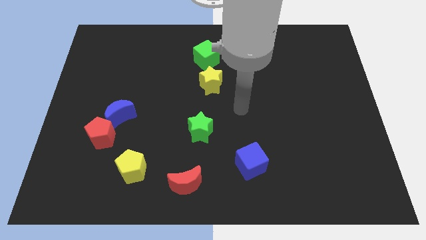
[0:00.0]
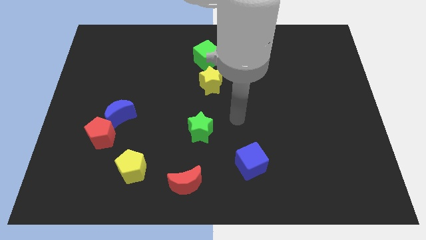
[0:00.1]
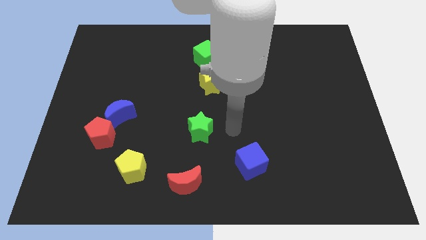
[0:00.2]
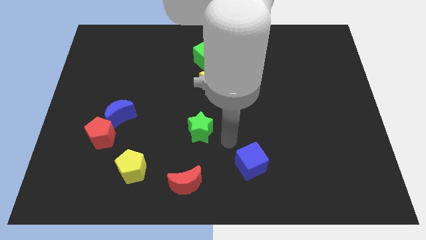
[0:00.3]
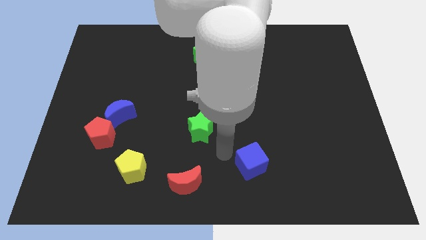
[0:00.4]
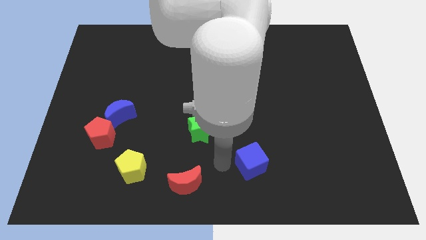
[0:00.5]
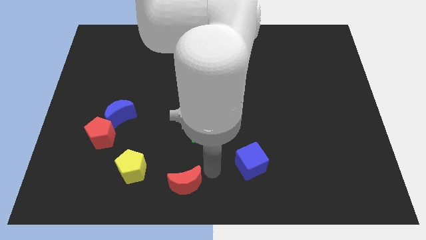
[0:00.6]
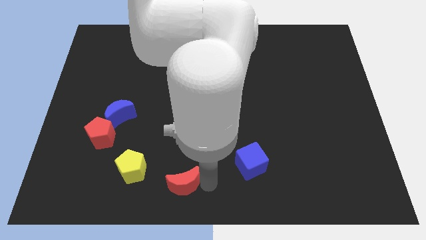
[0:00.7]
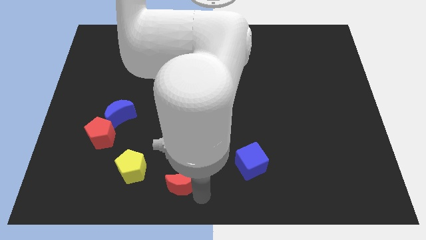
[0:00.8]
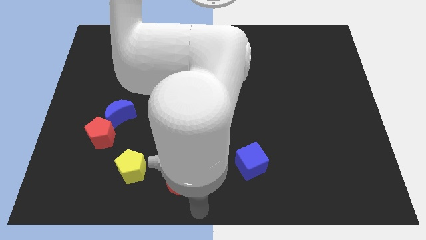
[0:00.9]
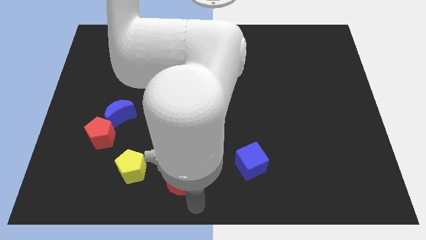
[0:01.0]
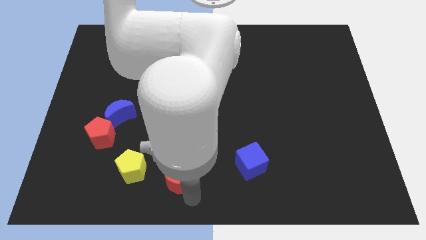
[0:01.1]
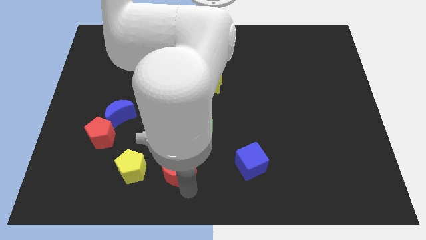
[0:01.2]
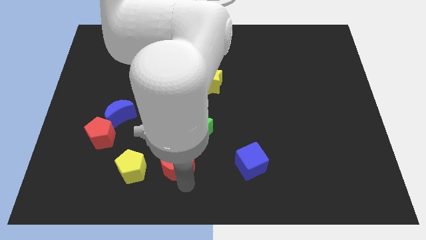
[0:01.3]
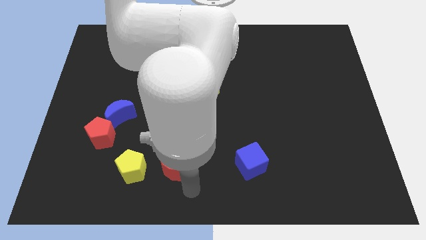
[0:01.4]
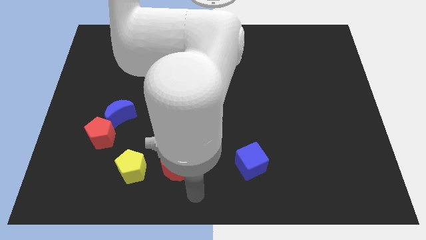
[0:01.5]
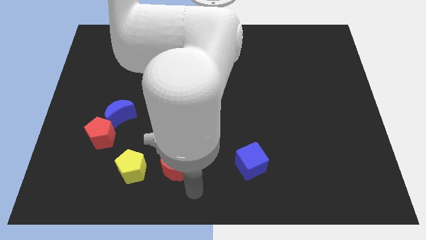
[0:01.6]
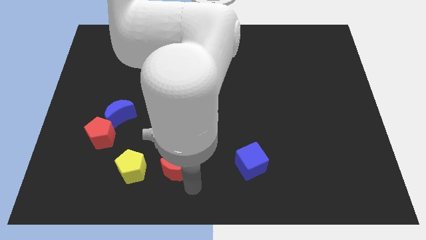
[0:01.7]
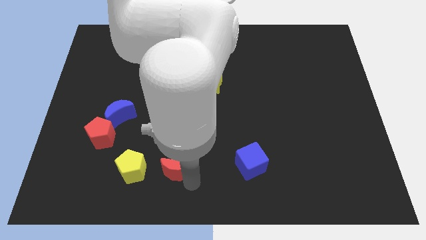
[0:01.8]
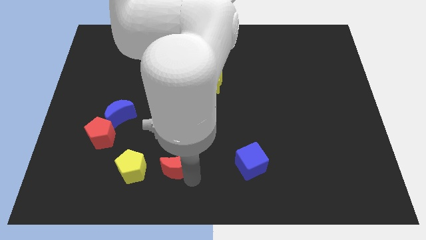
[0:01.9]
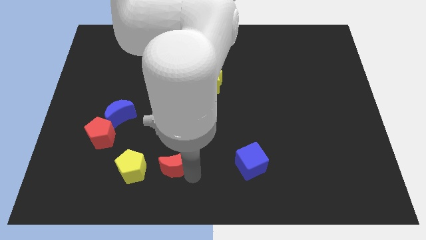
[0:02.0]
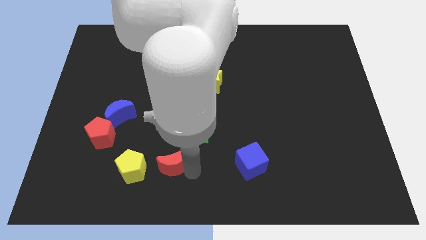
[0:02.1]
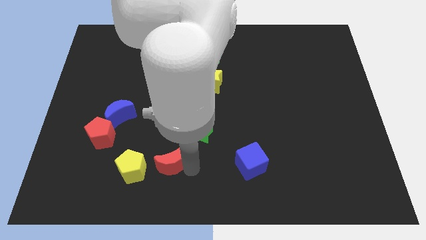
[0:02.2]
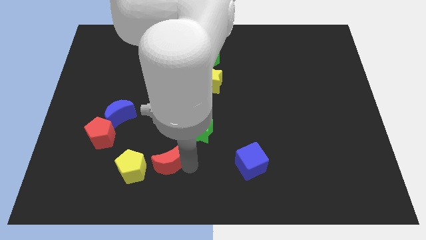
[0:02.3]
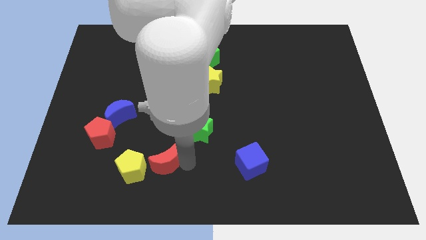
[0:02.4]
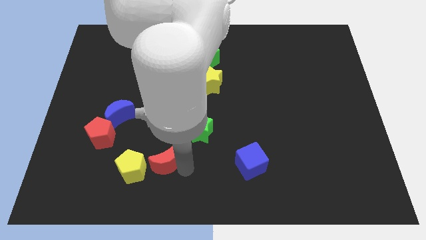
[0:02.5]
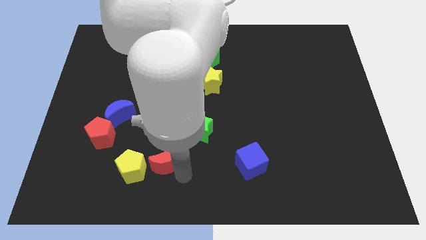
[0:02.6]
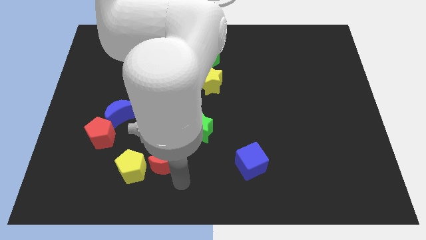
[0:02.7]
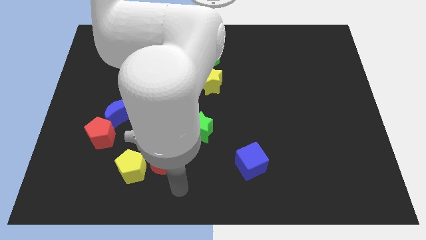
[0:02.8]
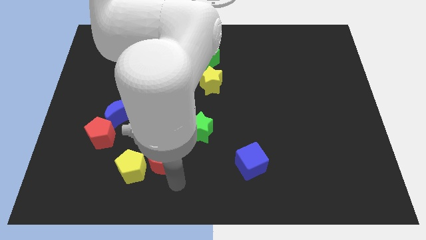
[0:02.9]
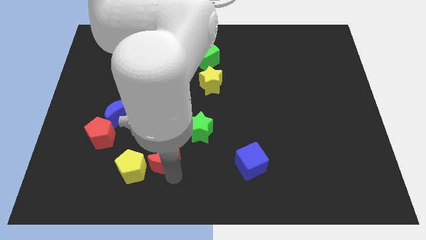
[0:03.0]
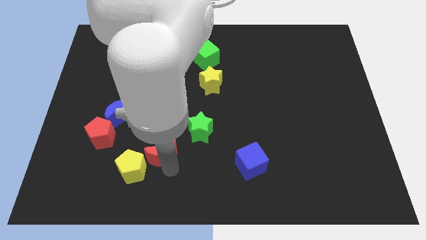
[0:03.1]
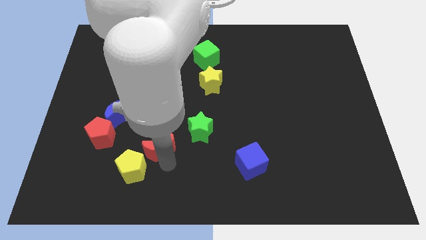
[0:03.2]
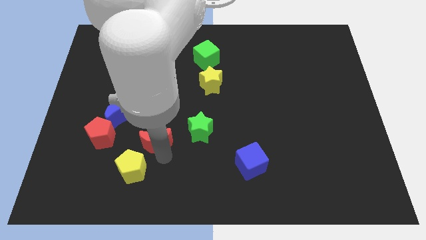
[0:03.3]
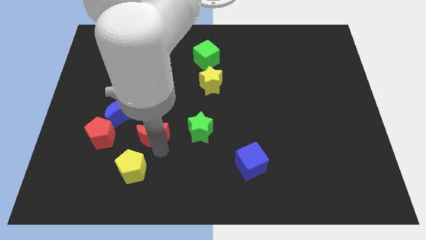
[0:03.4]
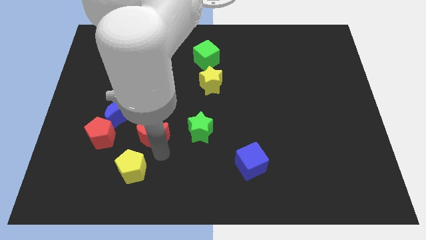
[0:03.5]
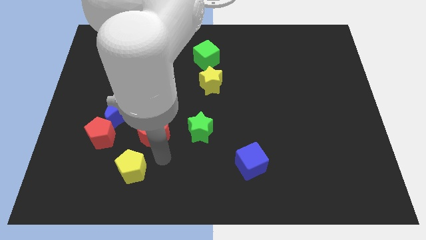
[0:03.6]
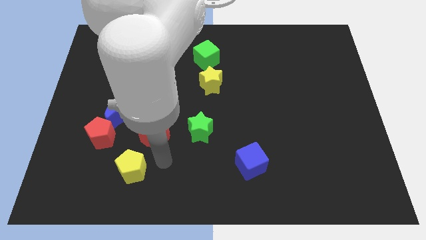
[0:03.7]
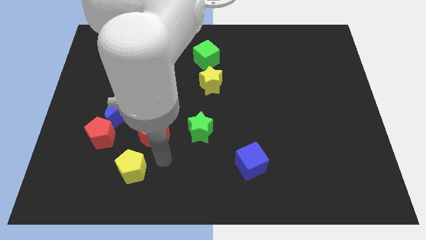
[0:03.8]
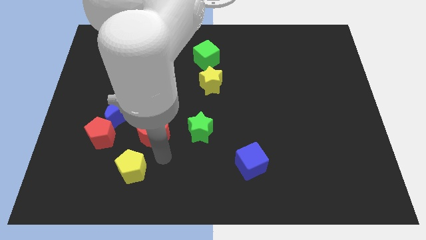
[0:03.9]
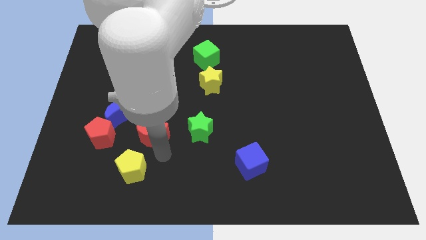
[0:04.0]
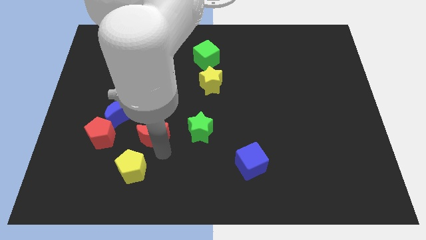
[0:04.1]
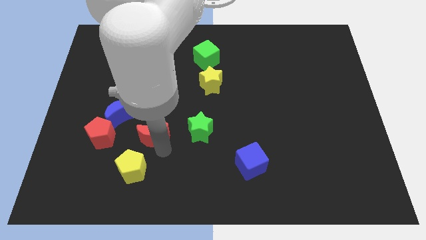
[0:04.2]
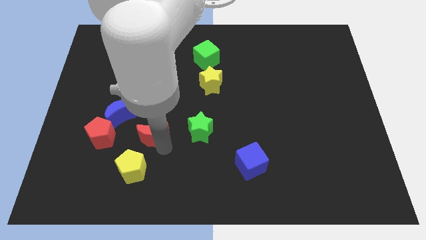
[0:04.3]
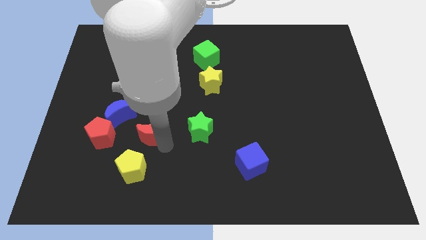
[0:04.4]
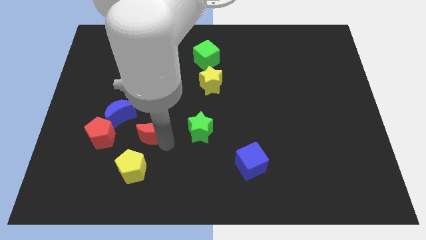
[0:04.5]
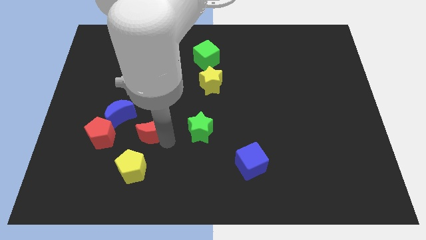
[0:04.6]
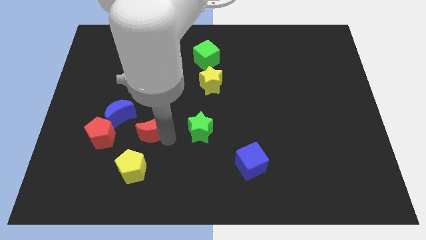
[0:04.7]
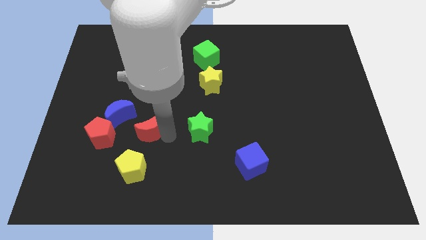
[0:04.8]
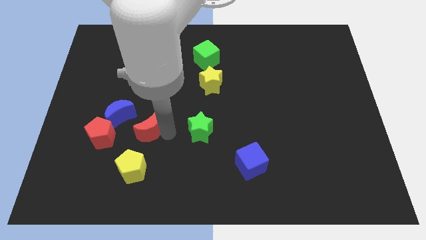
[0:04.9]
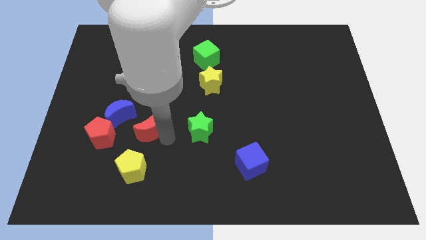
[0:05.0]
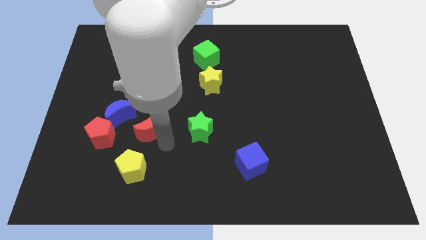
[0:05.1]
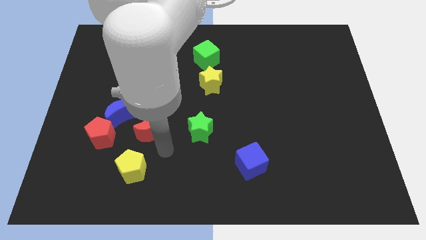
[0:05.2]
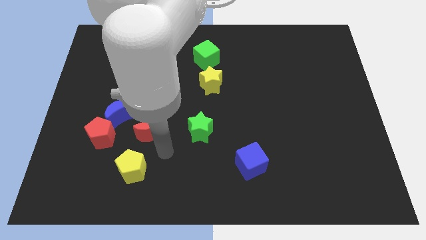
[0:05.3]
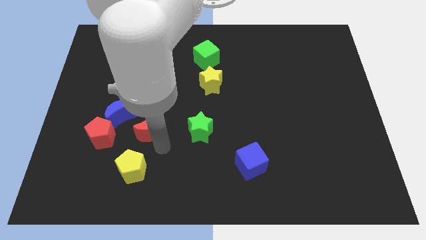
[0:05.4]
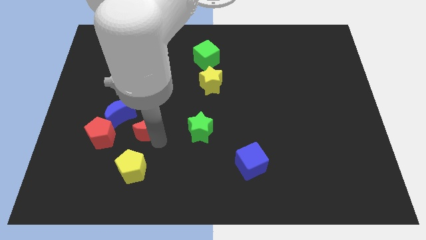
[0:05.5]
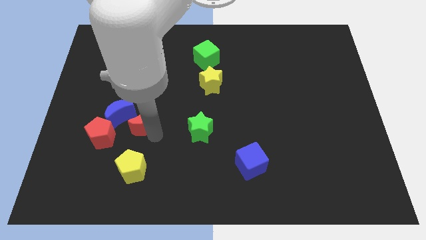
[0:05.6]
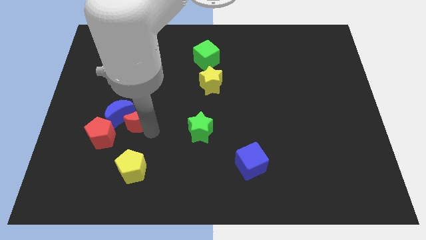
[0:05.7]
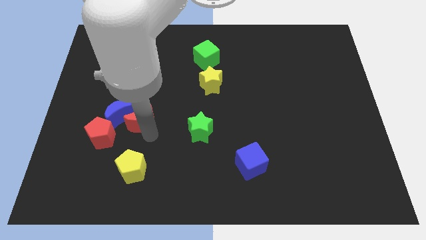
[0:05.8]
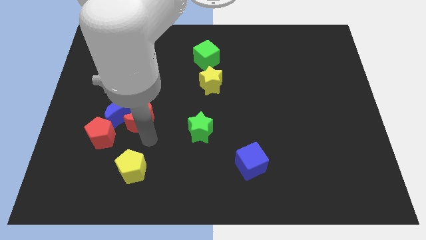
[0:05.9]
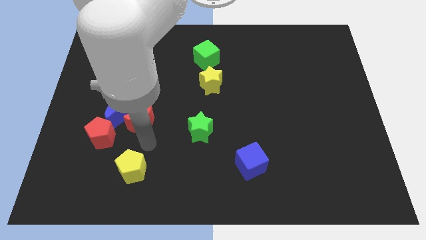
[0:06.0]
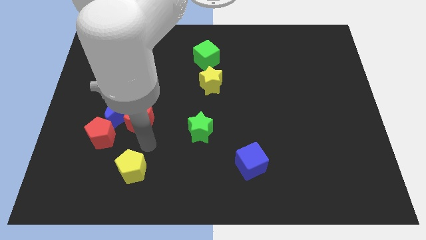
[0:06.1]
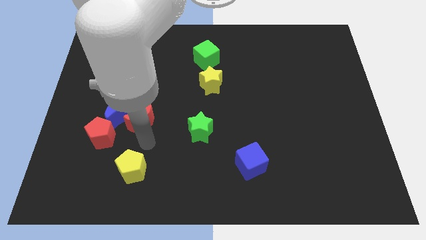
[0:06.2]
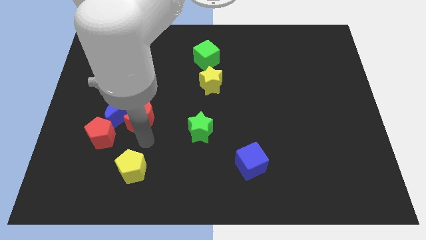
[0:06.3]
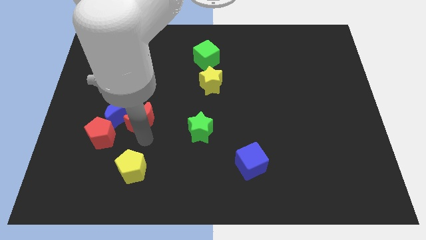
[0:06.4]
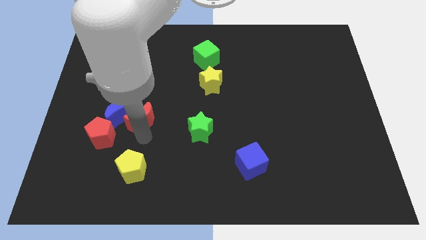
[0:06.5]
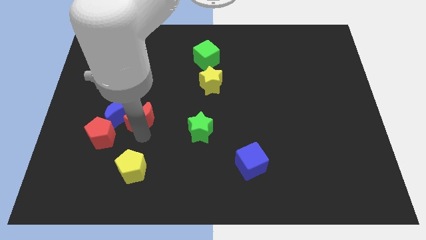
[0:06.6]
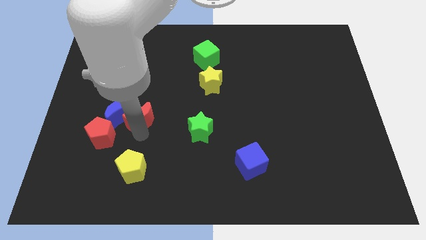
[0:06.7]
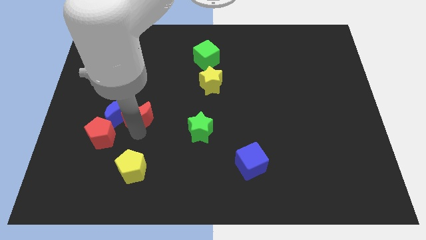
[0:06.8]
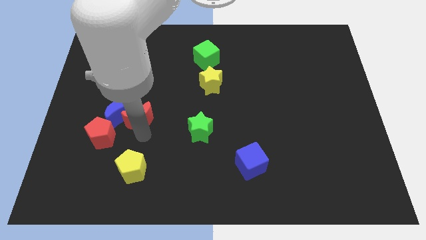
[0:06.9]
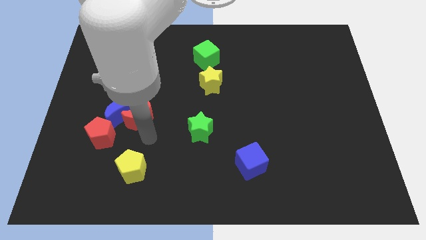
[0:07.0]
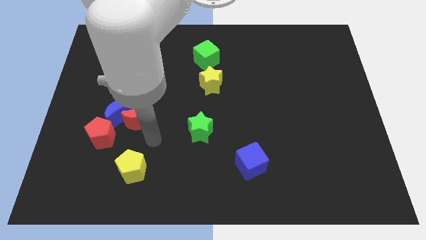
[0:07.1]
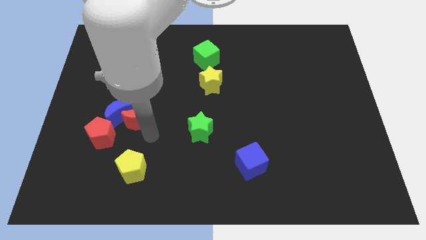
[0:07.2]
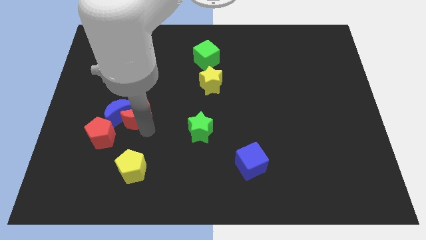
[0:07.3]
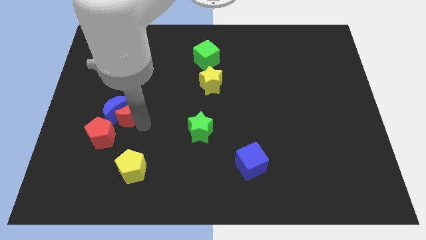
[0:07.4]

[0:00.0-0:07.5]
push the red moon up and left diagonally

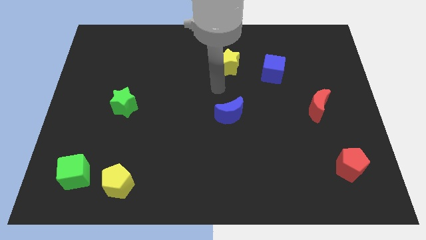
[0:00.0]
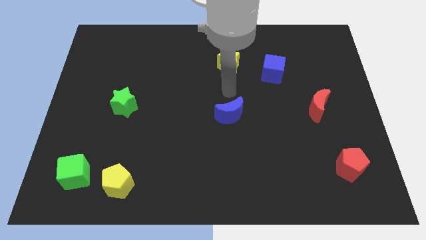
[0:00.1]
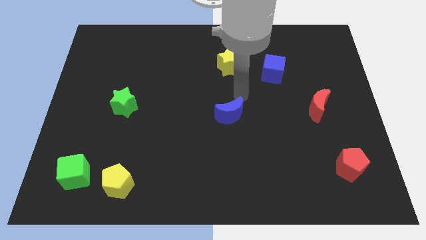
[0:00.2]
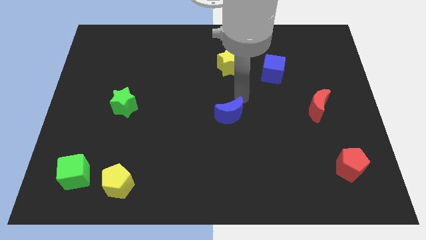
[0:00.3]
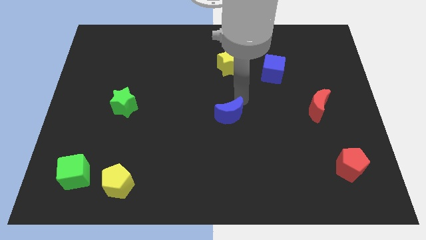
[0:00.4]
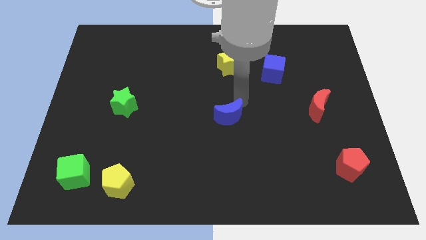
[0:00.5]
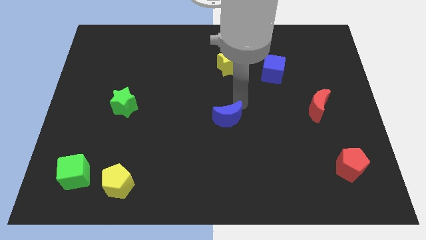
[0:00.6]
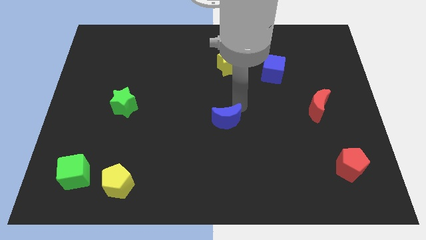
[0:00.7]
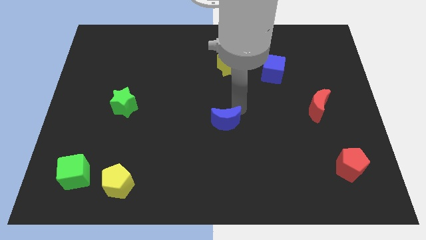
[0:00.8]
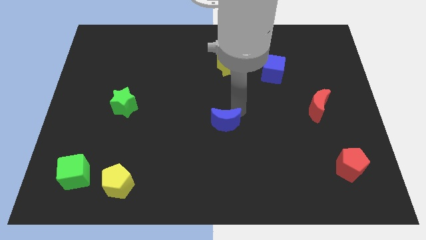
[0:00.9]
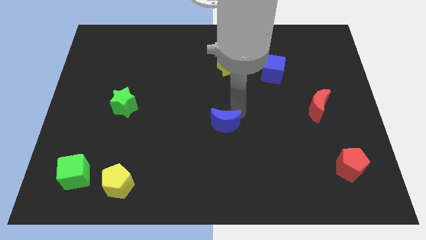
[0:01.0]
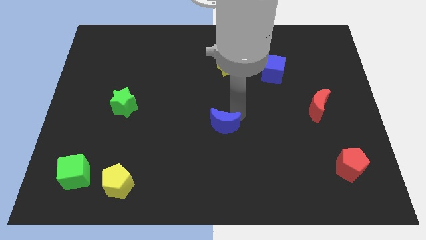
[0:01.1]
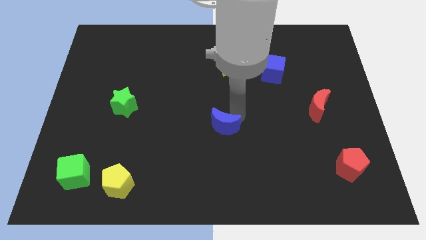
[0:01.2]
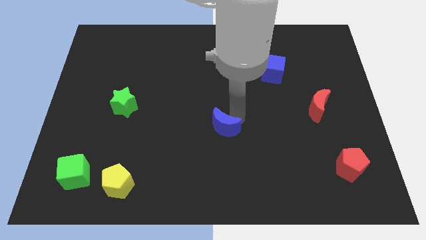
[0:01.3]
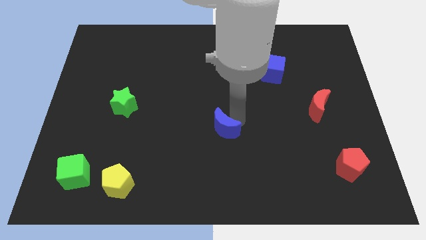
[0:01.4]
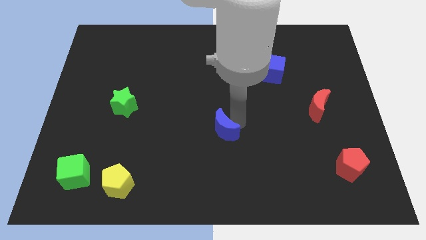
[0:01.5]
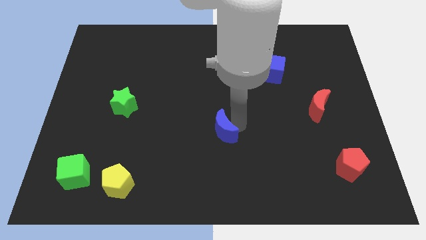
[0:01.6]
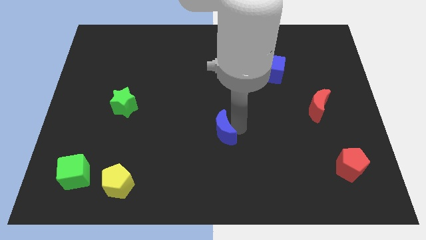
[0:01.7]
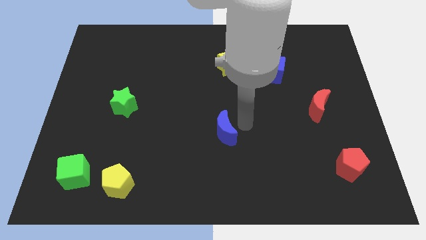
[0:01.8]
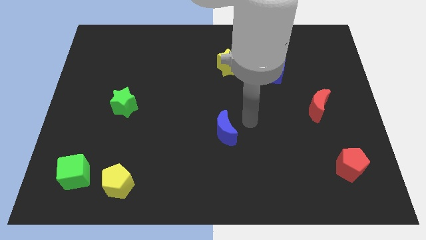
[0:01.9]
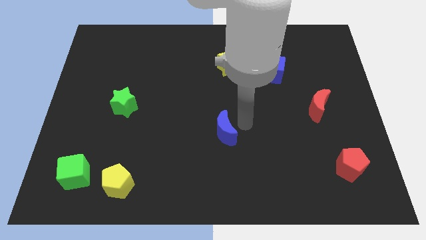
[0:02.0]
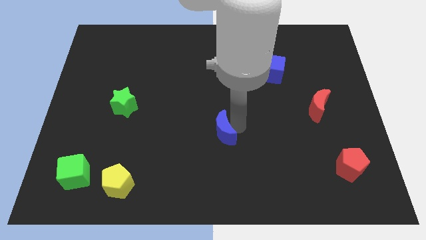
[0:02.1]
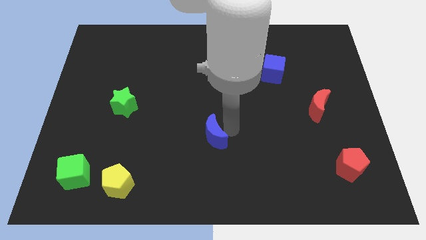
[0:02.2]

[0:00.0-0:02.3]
push the blue moon downwards and to the left diagonally a little
